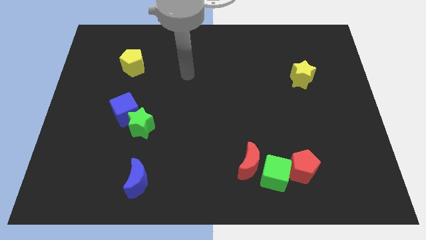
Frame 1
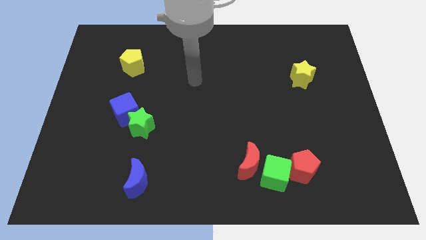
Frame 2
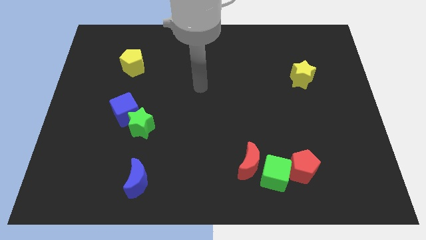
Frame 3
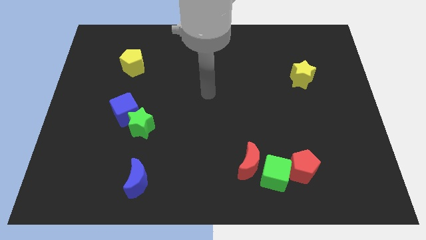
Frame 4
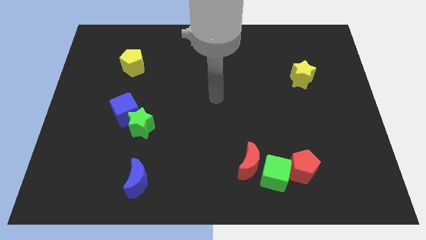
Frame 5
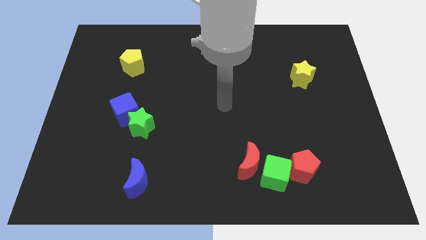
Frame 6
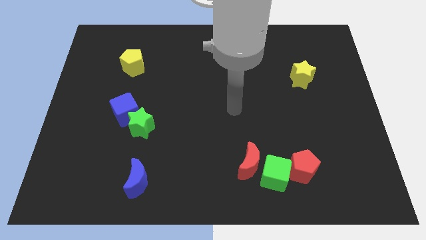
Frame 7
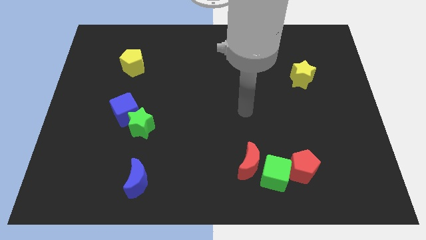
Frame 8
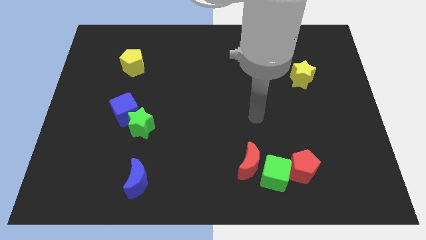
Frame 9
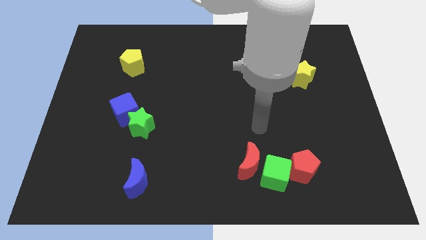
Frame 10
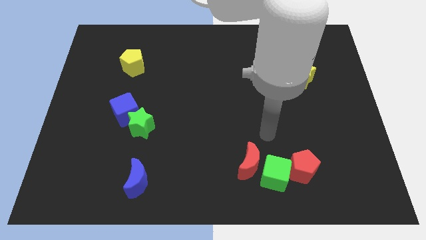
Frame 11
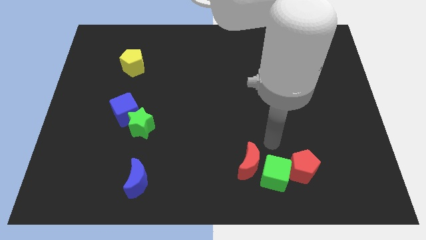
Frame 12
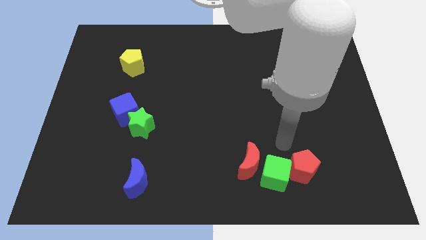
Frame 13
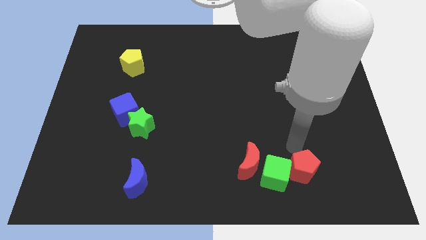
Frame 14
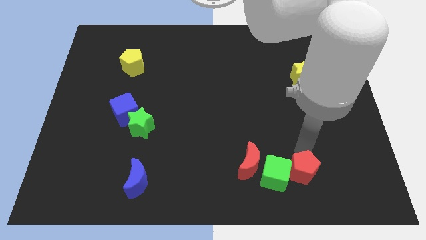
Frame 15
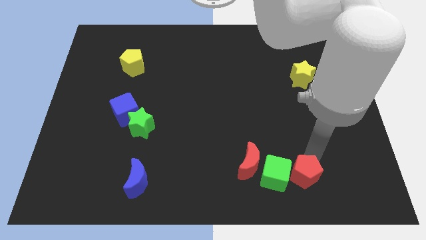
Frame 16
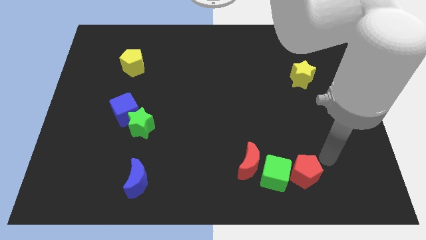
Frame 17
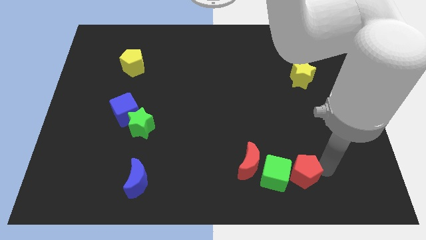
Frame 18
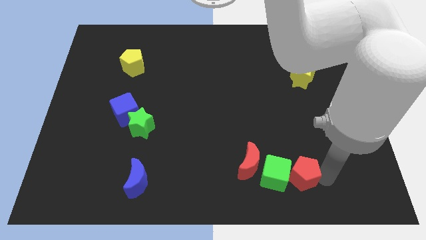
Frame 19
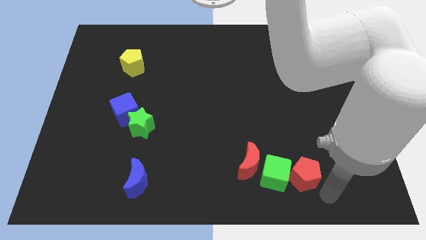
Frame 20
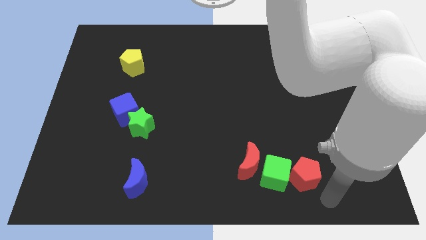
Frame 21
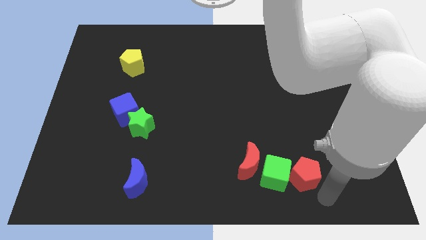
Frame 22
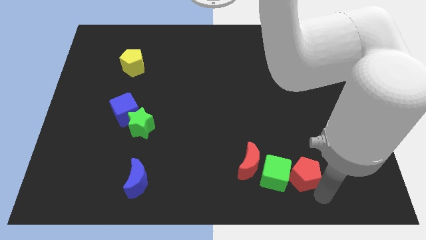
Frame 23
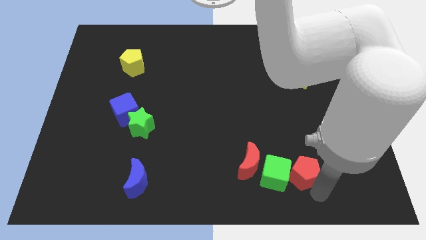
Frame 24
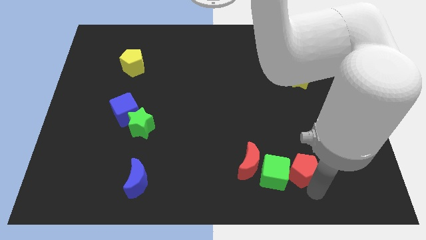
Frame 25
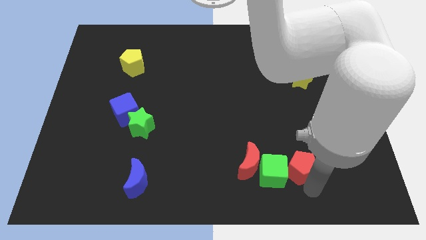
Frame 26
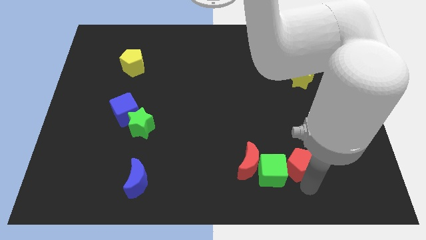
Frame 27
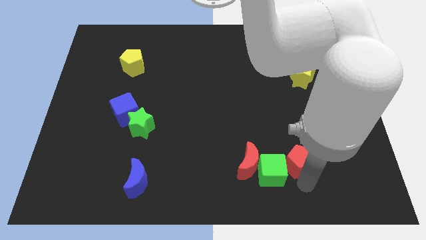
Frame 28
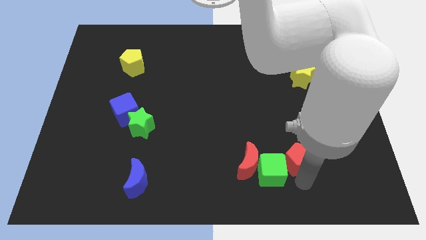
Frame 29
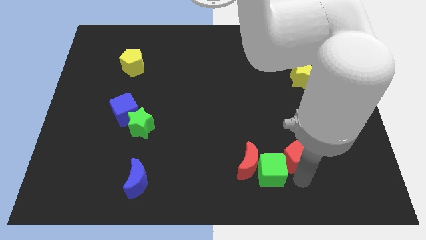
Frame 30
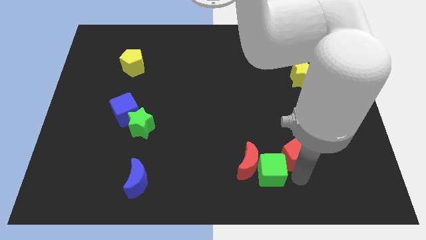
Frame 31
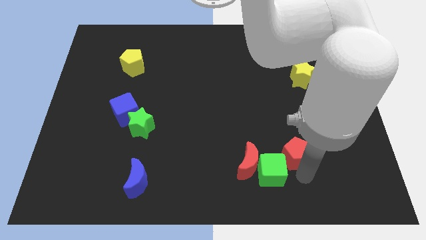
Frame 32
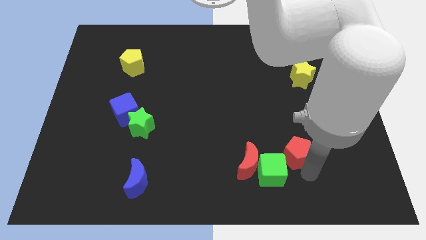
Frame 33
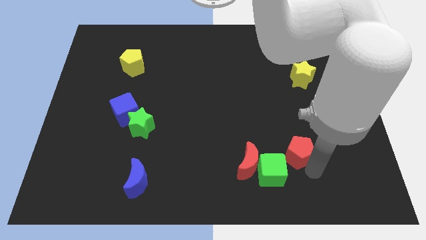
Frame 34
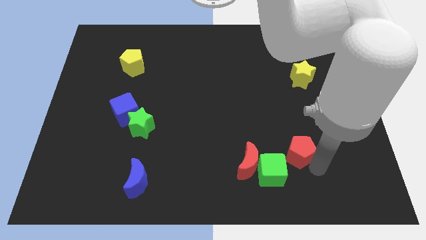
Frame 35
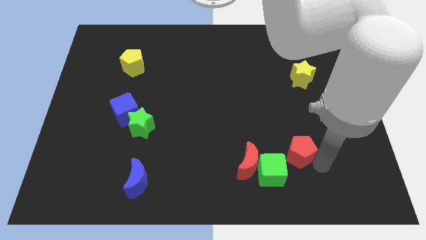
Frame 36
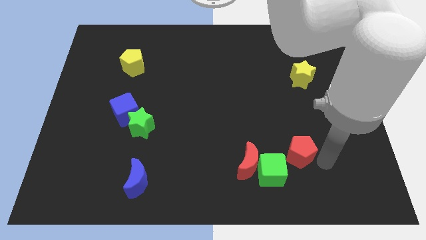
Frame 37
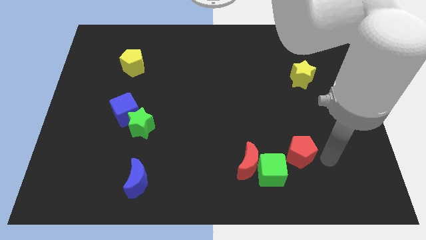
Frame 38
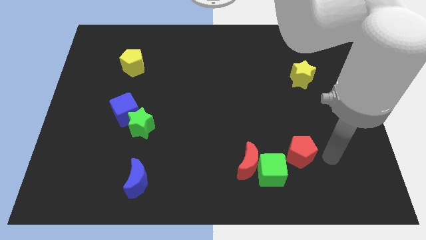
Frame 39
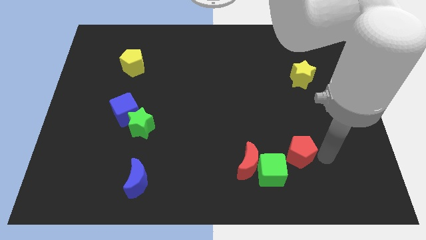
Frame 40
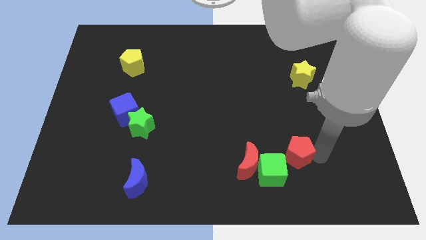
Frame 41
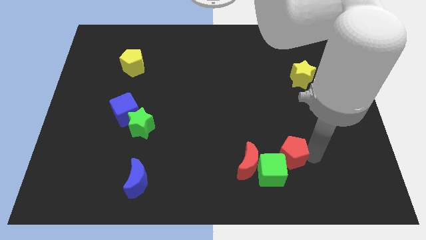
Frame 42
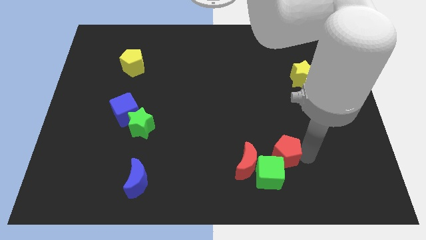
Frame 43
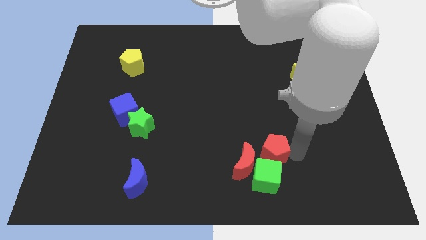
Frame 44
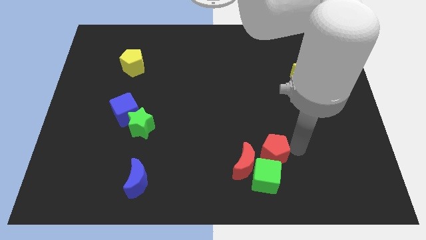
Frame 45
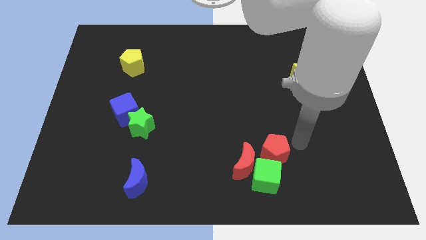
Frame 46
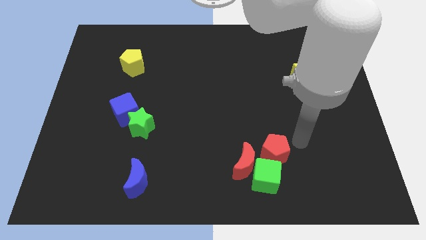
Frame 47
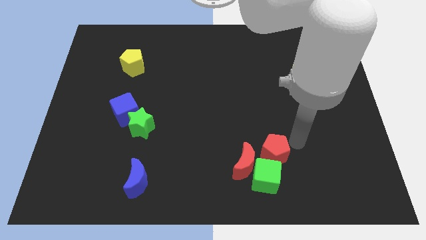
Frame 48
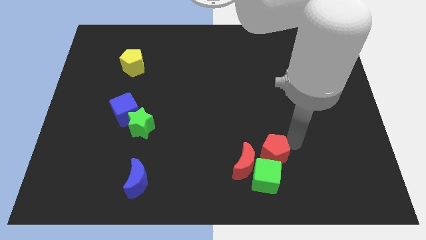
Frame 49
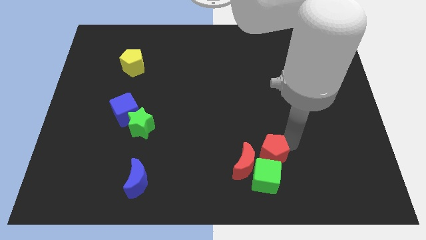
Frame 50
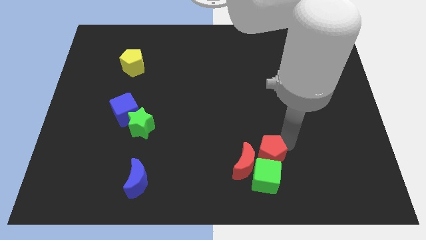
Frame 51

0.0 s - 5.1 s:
move the red pentagon towards the red moon

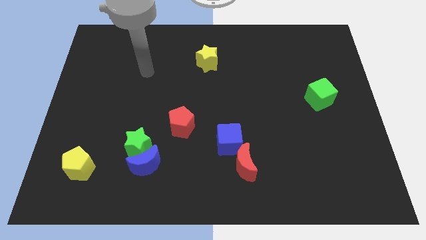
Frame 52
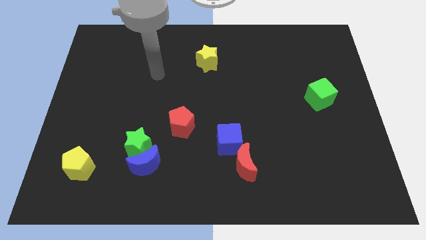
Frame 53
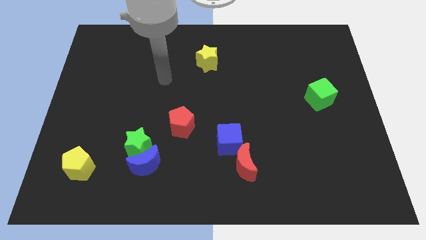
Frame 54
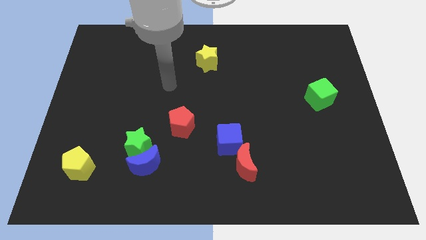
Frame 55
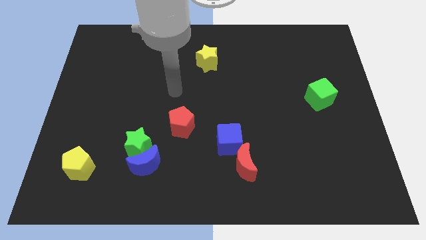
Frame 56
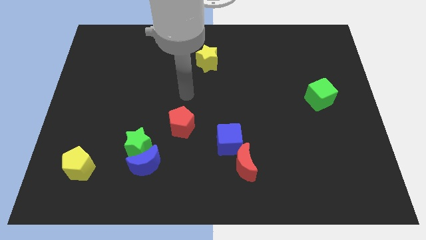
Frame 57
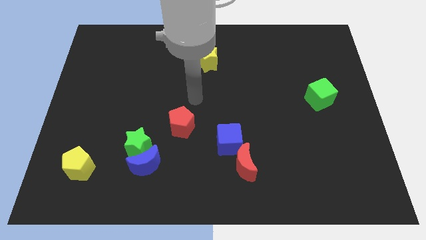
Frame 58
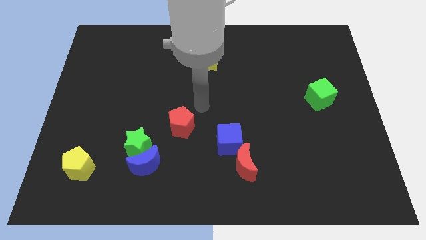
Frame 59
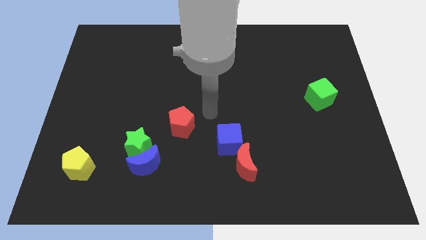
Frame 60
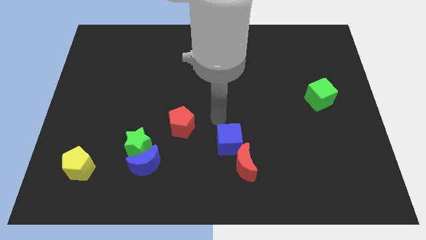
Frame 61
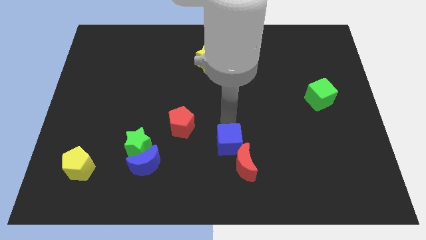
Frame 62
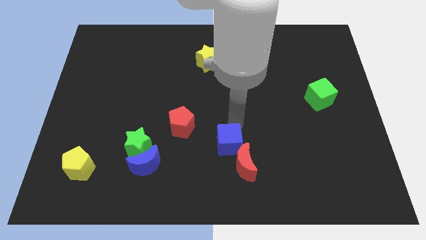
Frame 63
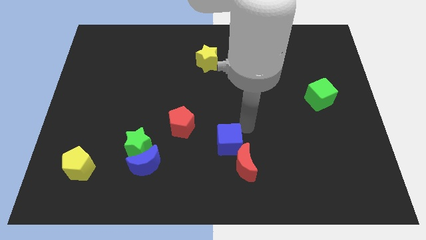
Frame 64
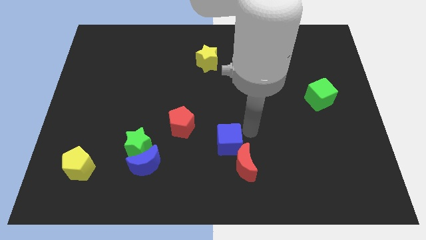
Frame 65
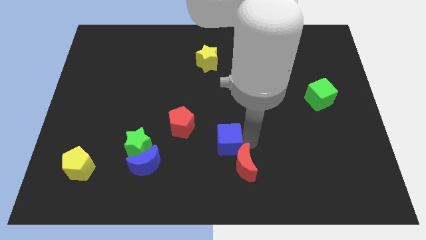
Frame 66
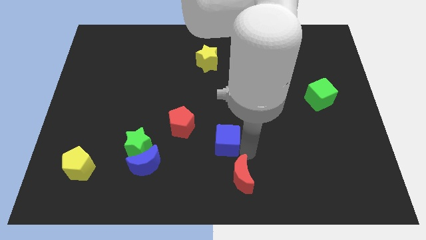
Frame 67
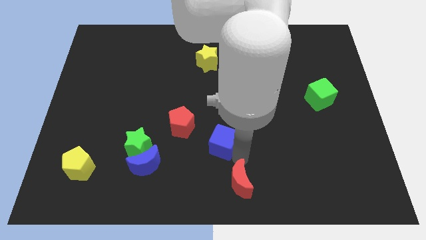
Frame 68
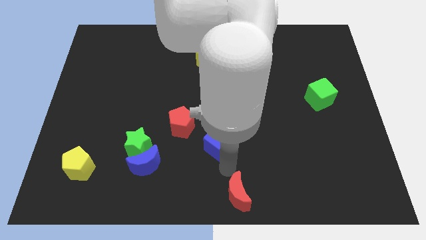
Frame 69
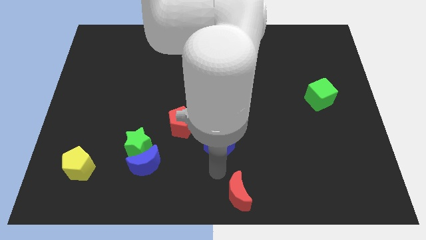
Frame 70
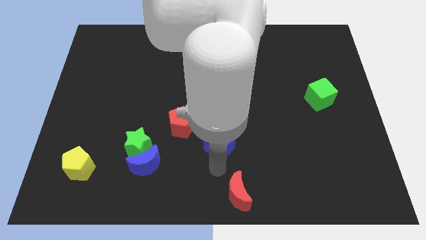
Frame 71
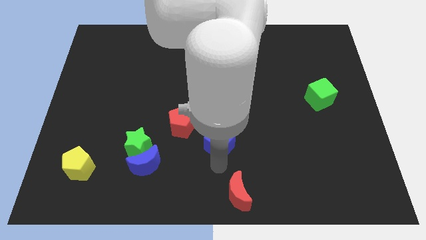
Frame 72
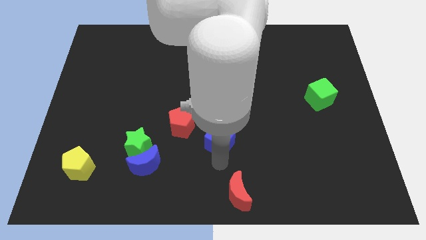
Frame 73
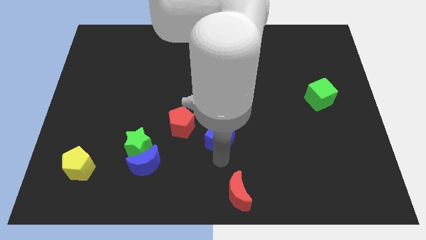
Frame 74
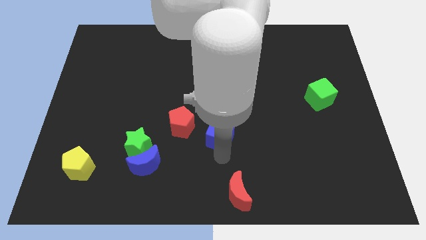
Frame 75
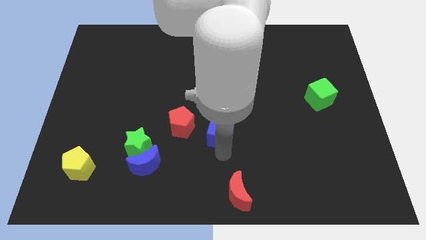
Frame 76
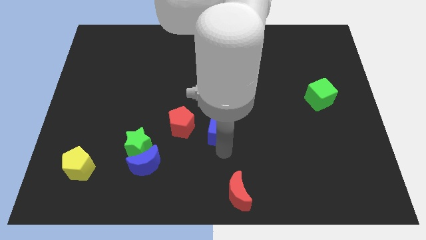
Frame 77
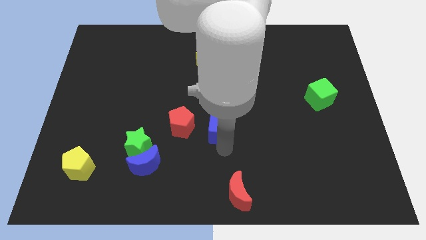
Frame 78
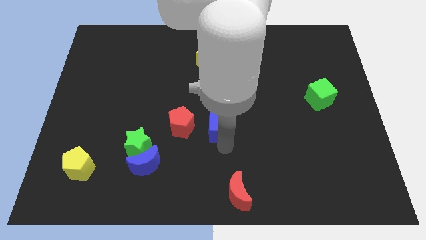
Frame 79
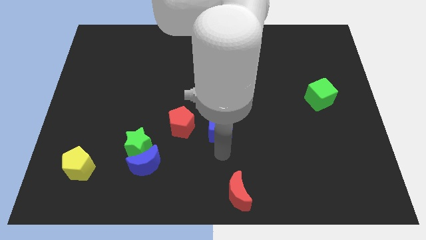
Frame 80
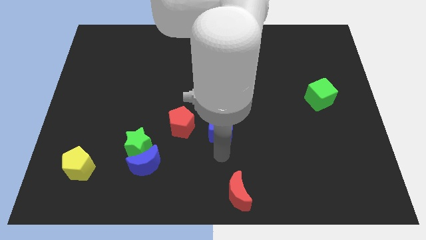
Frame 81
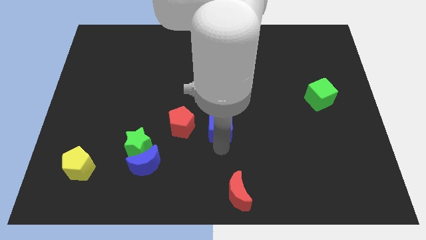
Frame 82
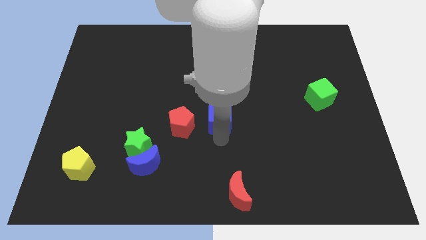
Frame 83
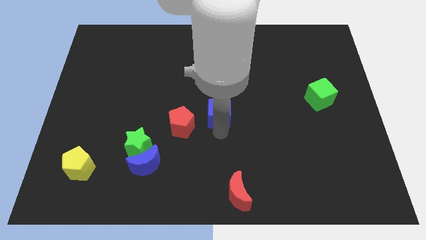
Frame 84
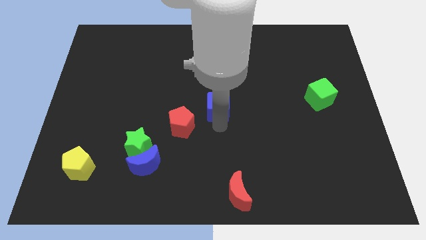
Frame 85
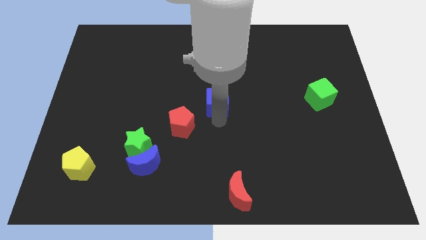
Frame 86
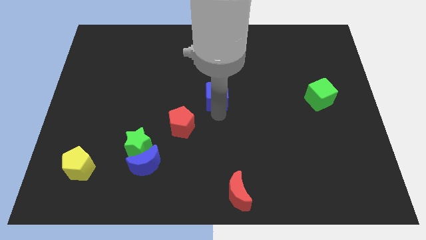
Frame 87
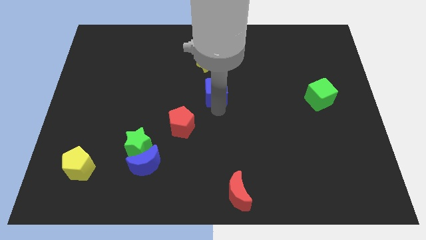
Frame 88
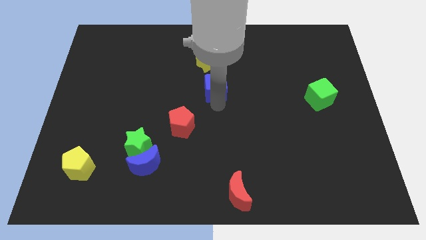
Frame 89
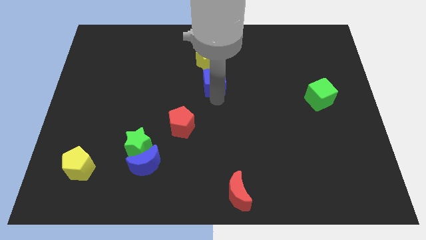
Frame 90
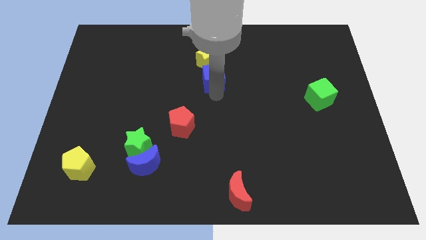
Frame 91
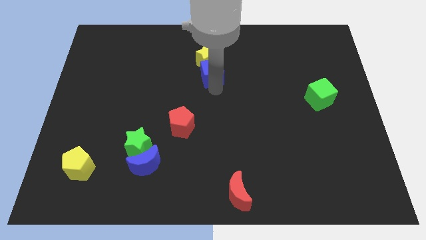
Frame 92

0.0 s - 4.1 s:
push the blue cube towards the yellow star
